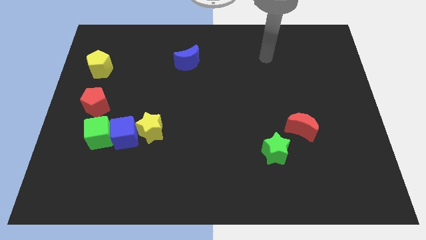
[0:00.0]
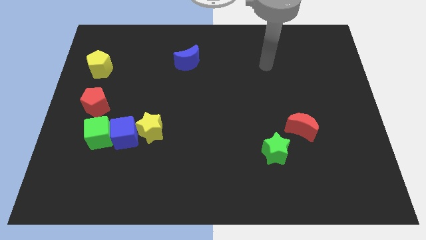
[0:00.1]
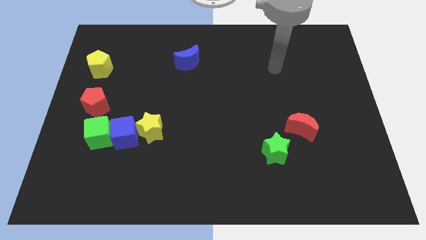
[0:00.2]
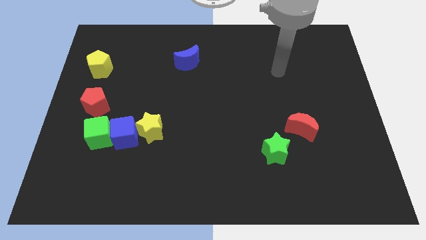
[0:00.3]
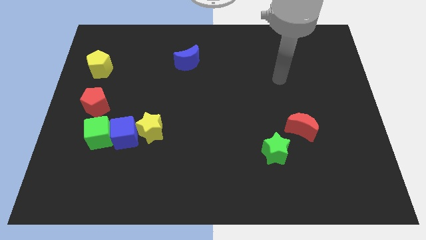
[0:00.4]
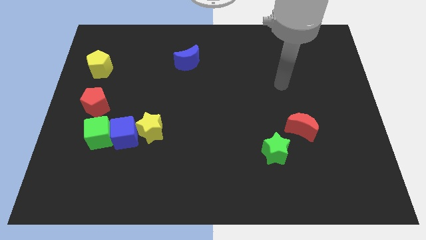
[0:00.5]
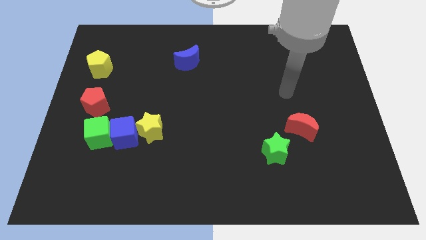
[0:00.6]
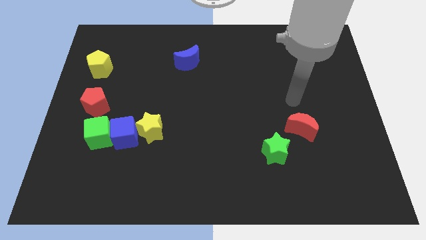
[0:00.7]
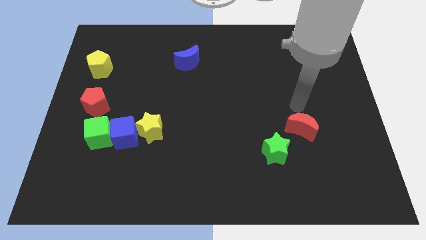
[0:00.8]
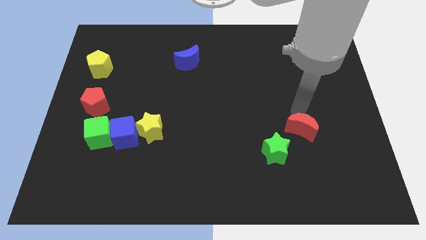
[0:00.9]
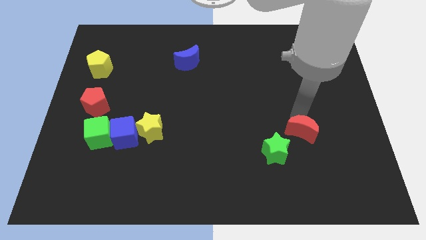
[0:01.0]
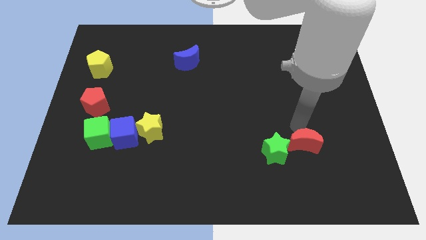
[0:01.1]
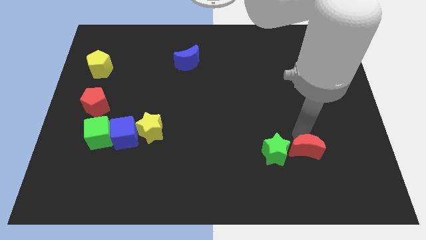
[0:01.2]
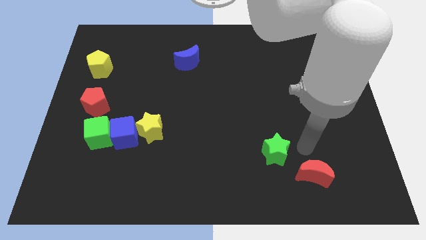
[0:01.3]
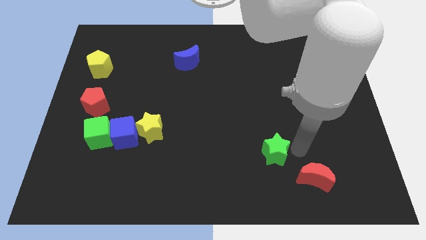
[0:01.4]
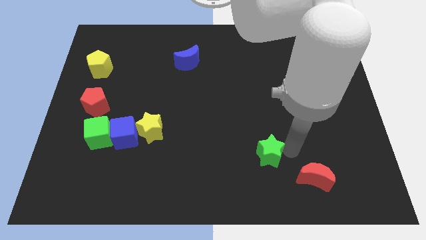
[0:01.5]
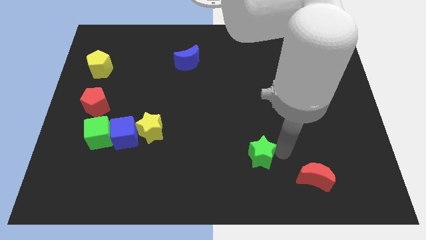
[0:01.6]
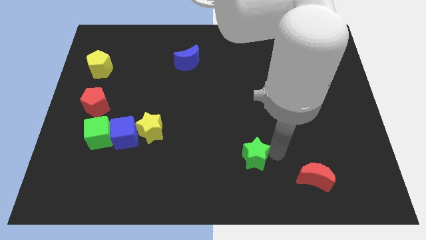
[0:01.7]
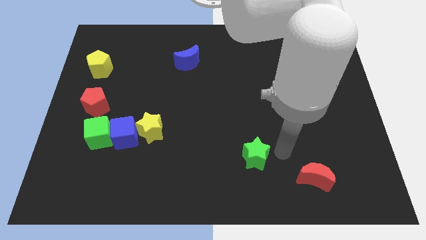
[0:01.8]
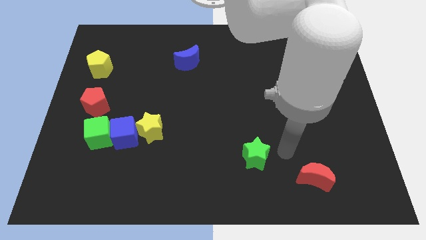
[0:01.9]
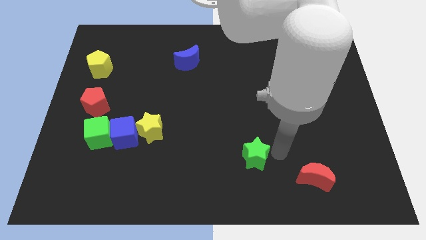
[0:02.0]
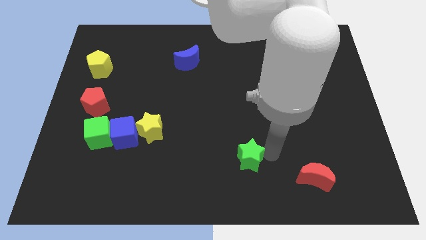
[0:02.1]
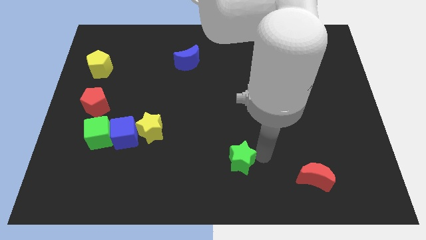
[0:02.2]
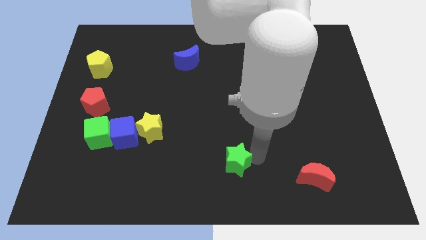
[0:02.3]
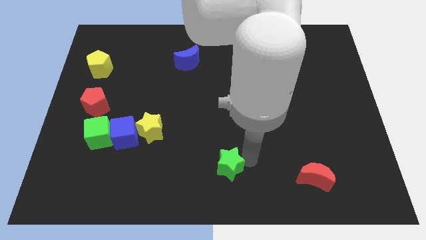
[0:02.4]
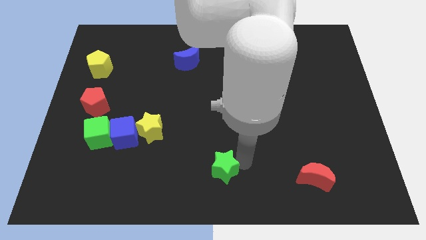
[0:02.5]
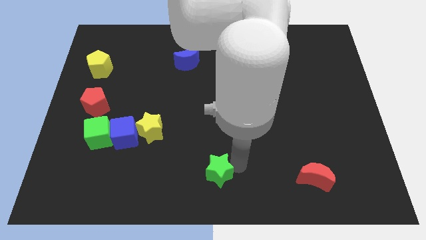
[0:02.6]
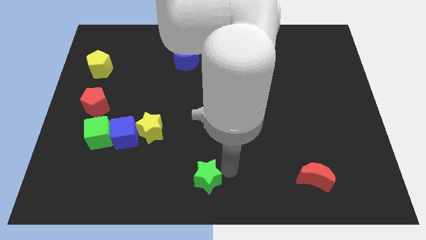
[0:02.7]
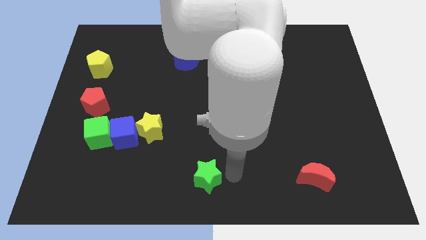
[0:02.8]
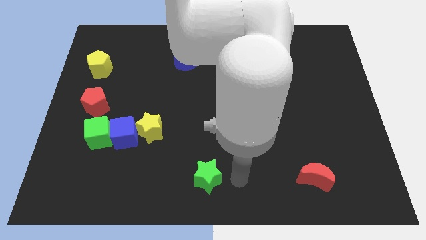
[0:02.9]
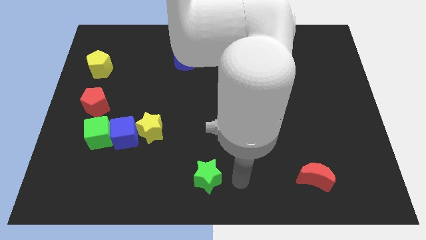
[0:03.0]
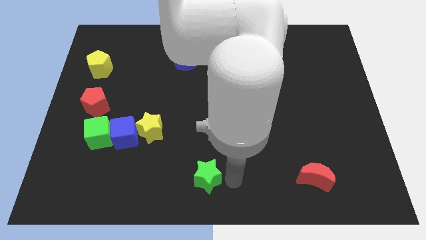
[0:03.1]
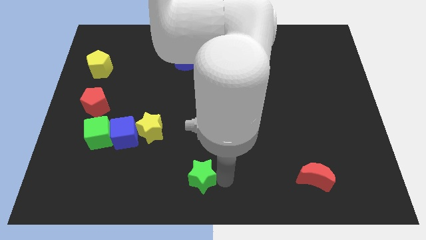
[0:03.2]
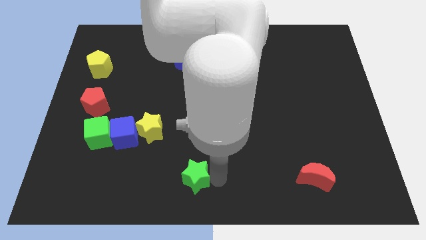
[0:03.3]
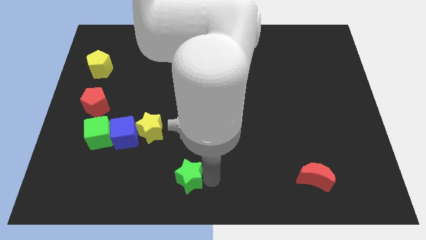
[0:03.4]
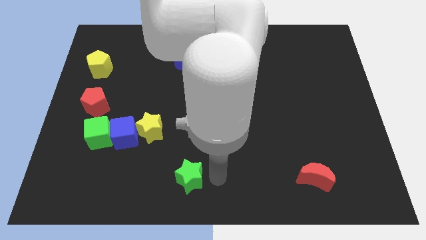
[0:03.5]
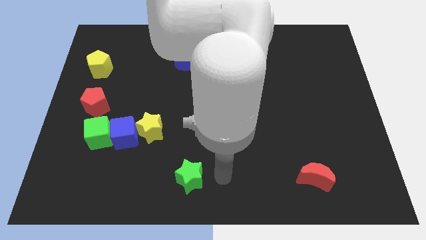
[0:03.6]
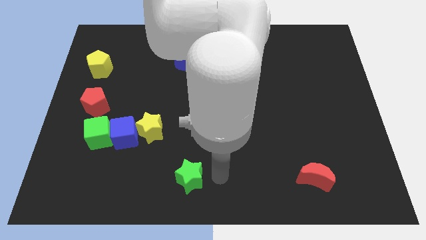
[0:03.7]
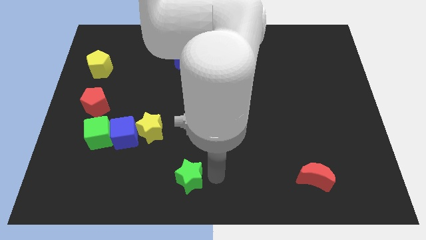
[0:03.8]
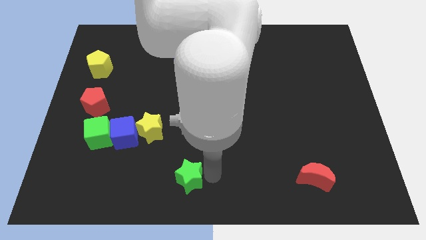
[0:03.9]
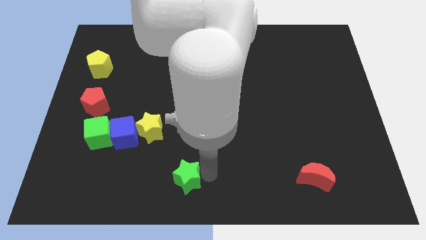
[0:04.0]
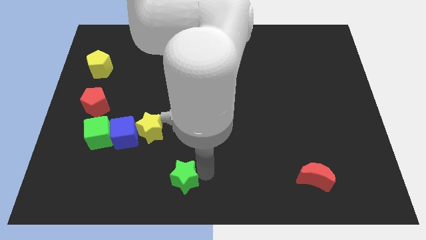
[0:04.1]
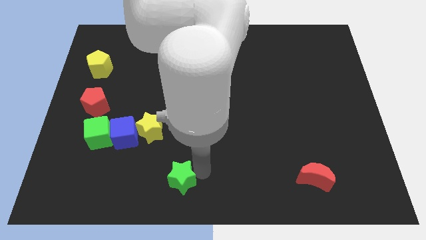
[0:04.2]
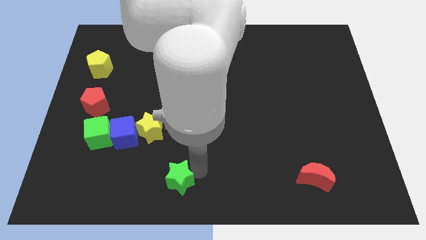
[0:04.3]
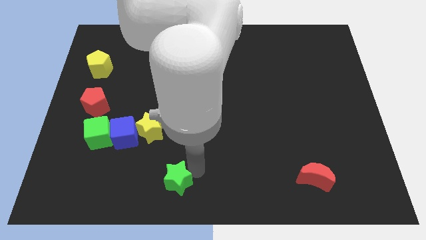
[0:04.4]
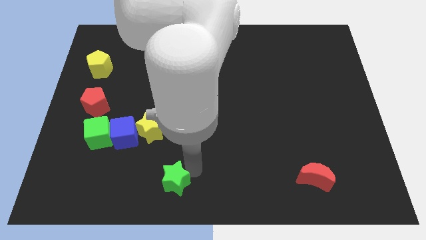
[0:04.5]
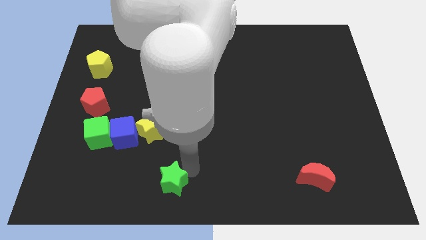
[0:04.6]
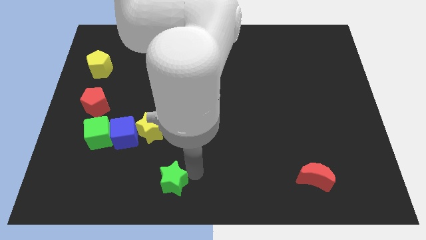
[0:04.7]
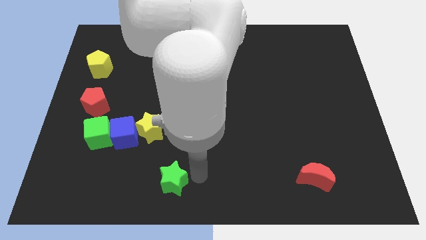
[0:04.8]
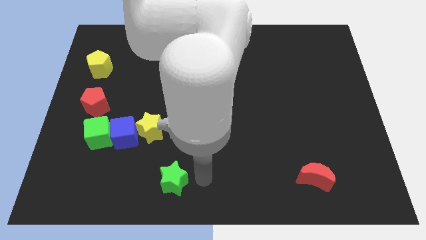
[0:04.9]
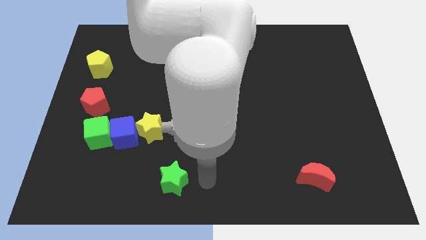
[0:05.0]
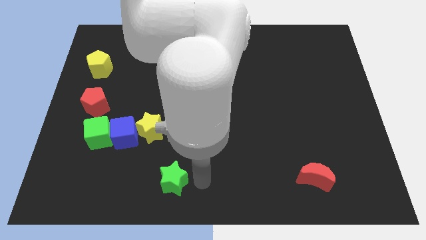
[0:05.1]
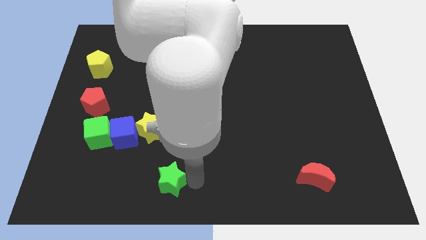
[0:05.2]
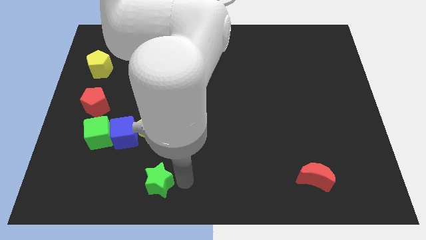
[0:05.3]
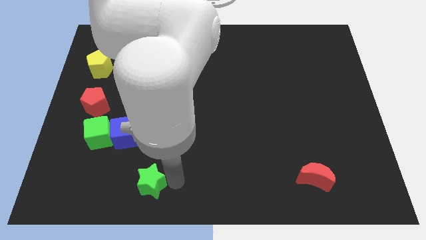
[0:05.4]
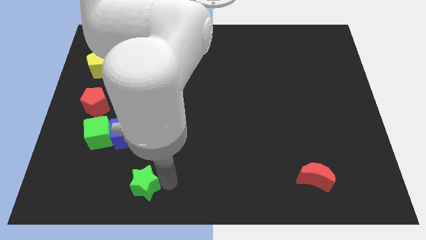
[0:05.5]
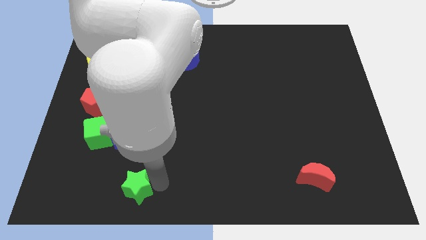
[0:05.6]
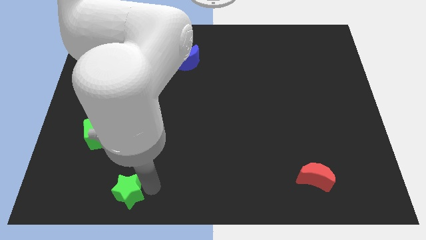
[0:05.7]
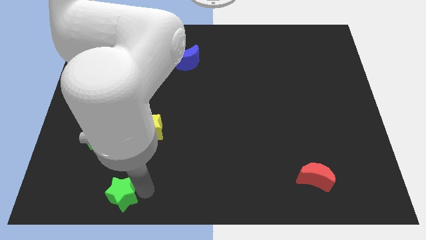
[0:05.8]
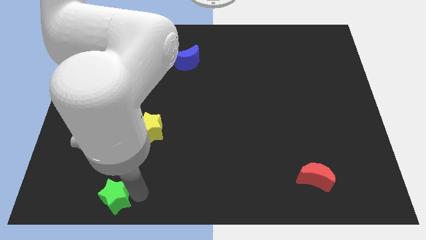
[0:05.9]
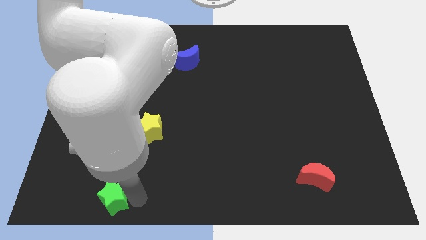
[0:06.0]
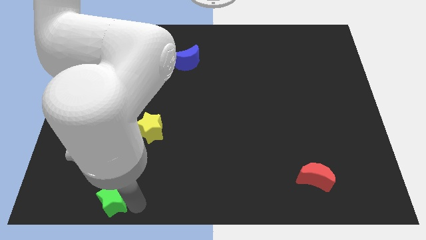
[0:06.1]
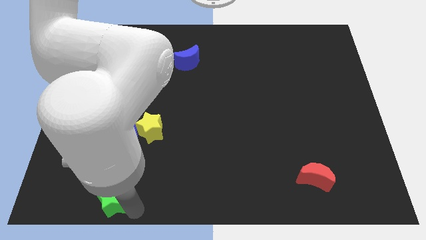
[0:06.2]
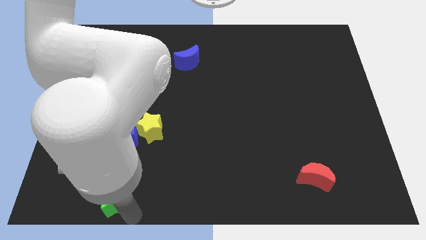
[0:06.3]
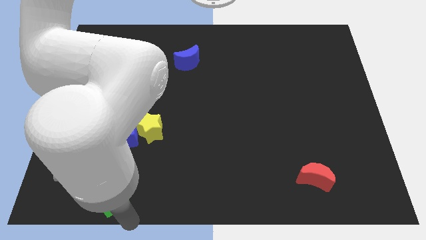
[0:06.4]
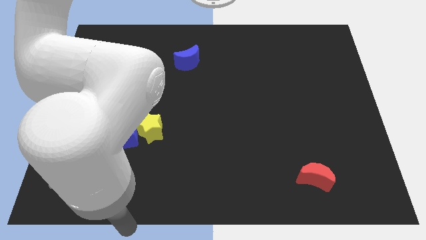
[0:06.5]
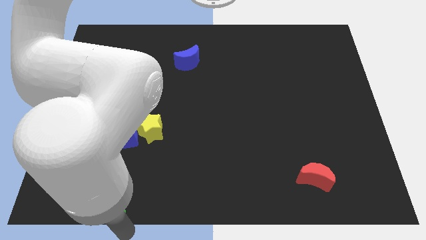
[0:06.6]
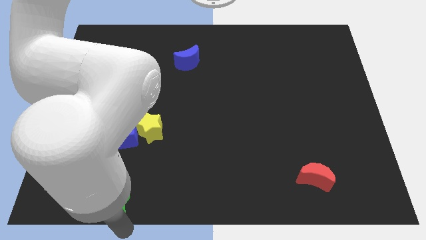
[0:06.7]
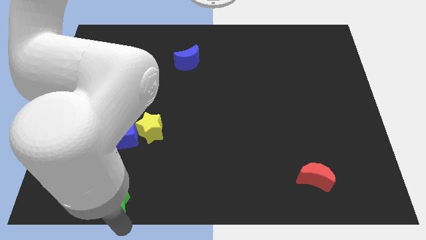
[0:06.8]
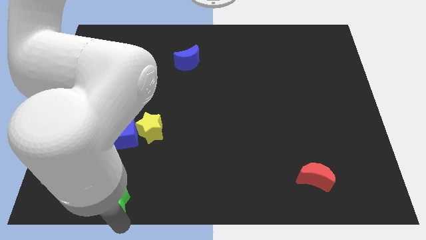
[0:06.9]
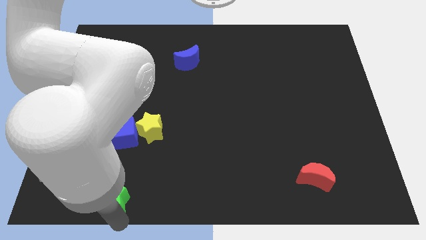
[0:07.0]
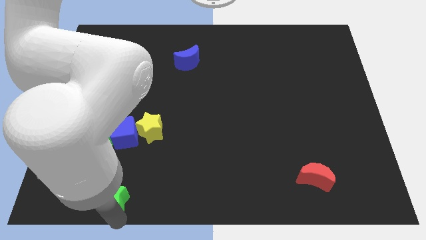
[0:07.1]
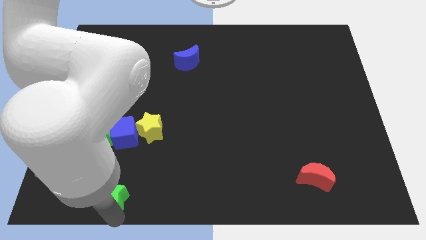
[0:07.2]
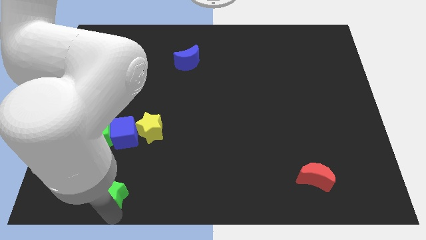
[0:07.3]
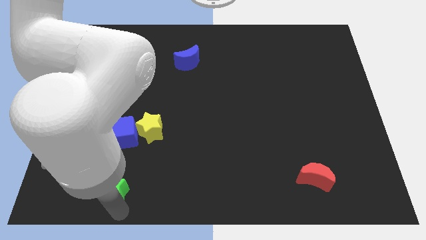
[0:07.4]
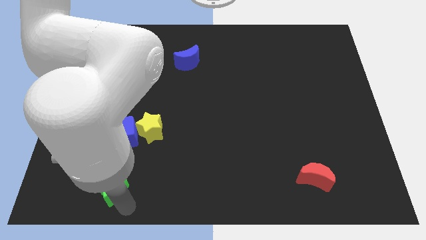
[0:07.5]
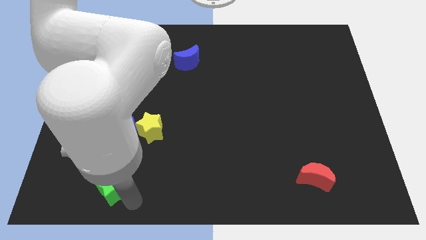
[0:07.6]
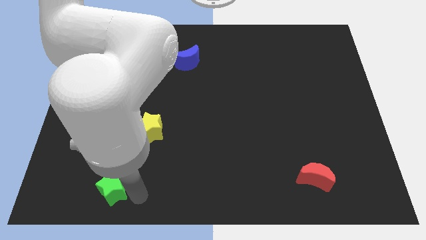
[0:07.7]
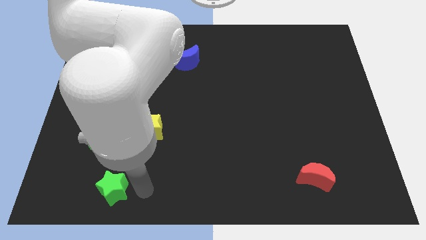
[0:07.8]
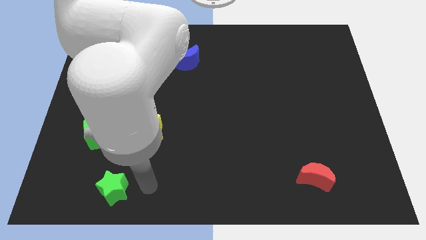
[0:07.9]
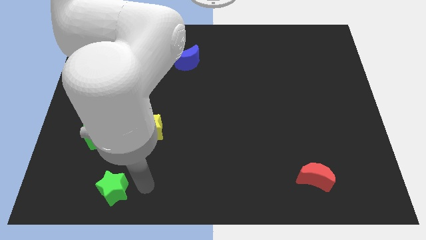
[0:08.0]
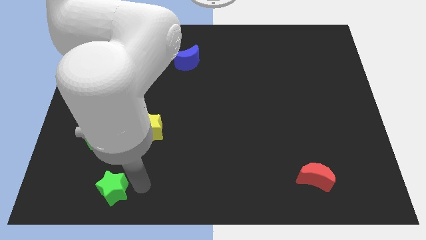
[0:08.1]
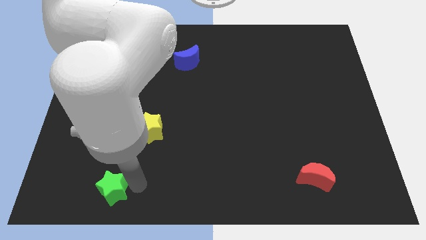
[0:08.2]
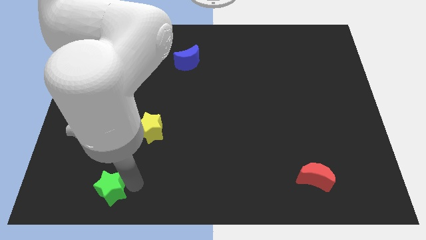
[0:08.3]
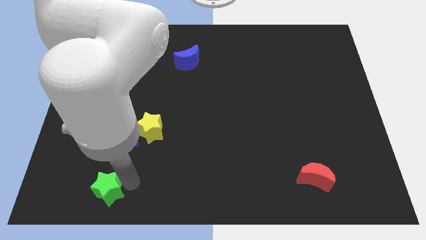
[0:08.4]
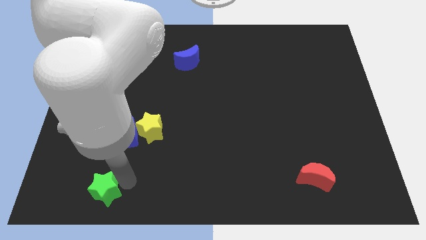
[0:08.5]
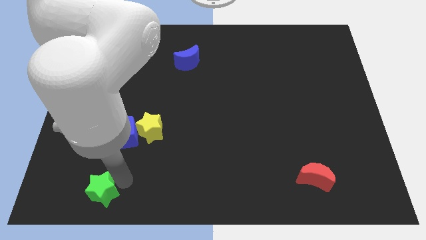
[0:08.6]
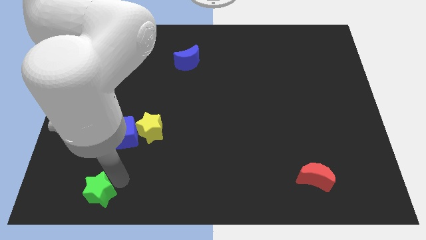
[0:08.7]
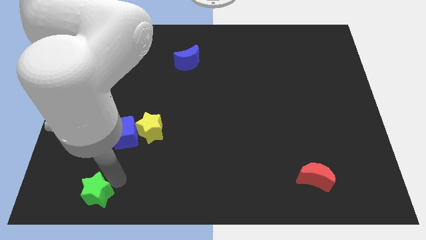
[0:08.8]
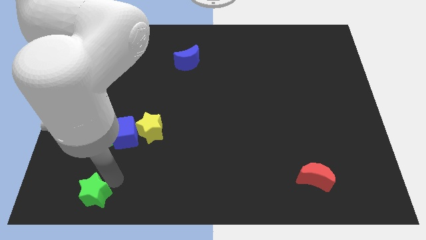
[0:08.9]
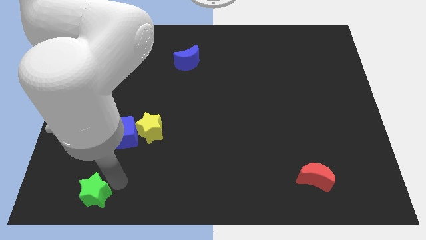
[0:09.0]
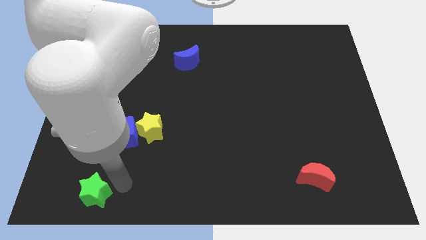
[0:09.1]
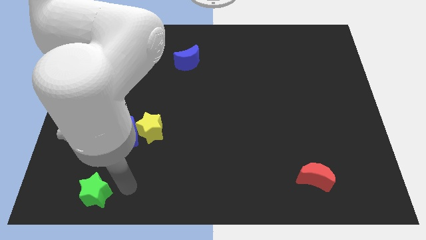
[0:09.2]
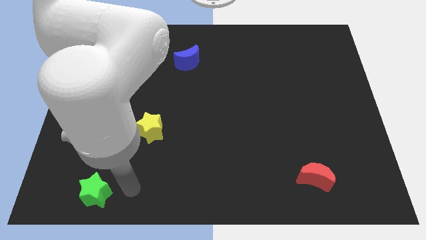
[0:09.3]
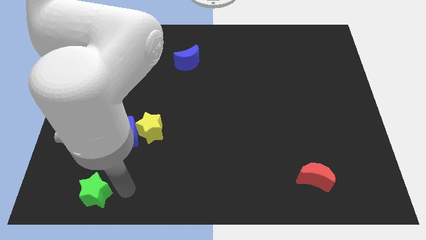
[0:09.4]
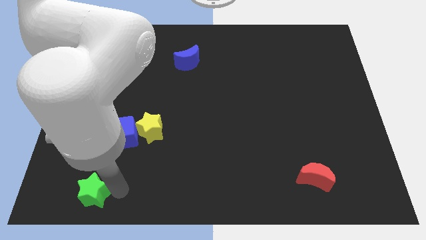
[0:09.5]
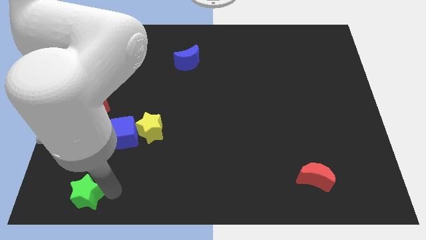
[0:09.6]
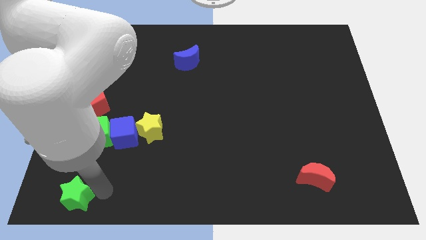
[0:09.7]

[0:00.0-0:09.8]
slide the green star to the bottom left corner
